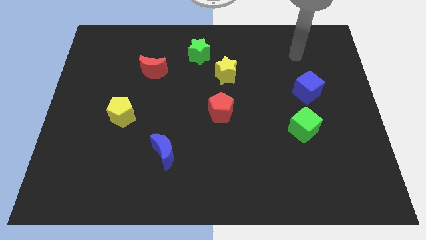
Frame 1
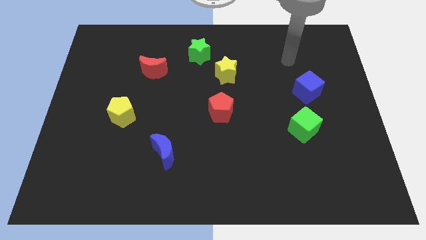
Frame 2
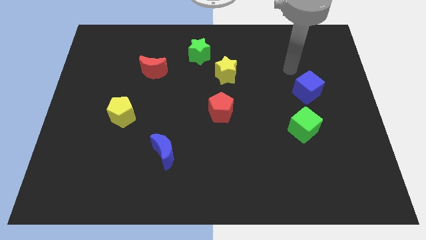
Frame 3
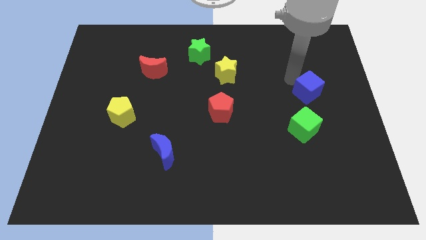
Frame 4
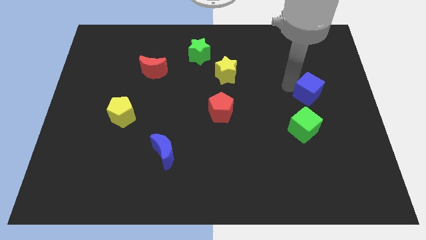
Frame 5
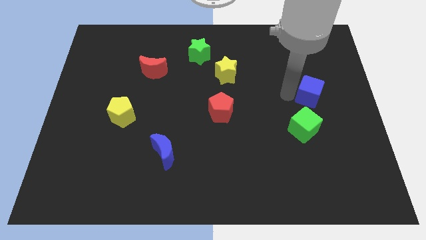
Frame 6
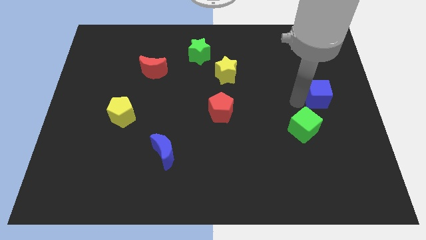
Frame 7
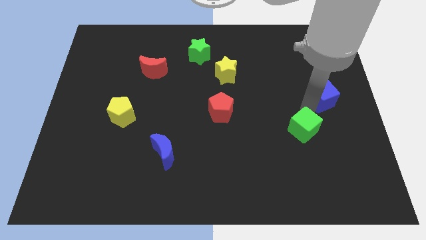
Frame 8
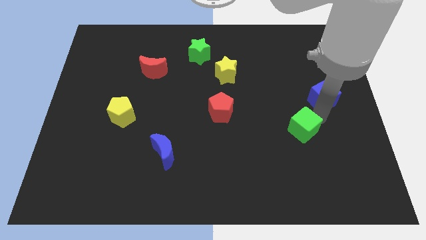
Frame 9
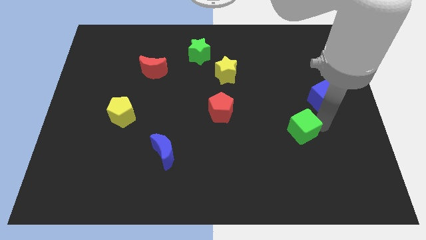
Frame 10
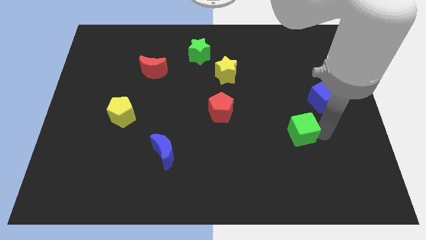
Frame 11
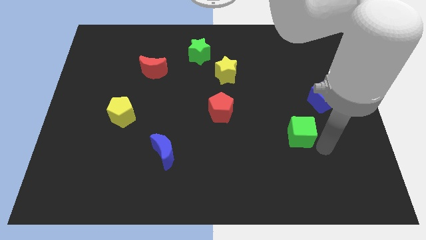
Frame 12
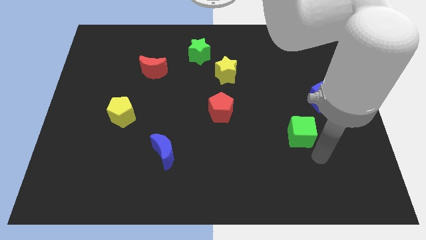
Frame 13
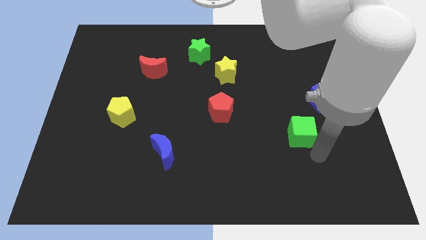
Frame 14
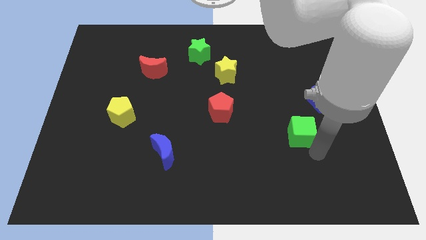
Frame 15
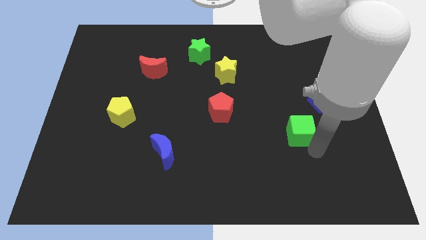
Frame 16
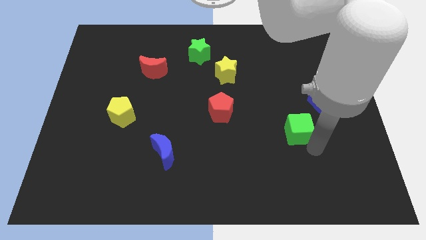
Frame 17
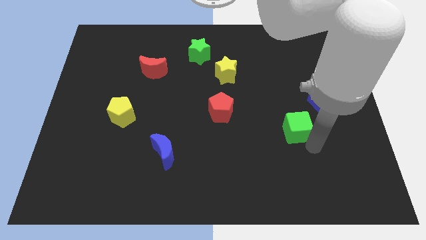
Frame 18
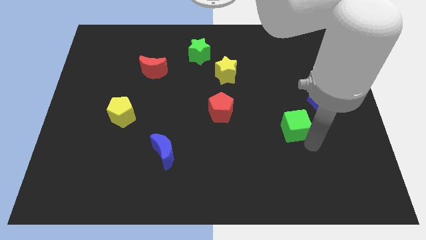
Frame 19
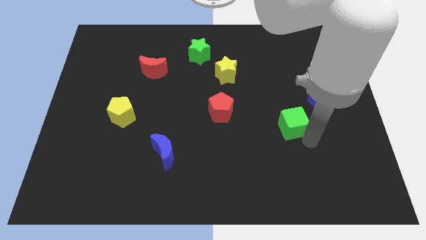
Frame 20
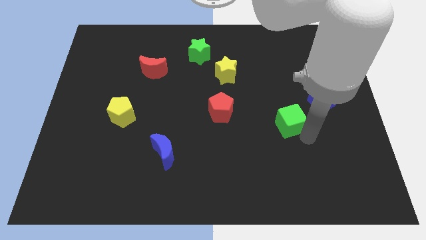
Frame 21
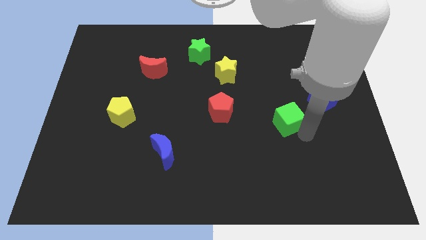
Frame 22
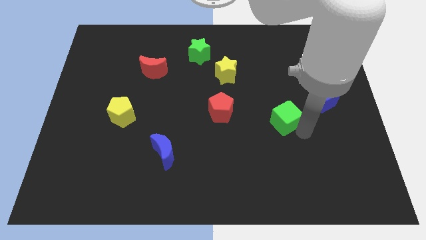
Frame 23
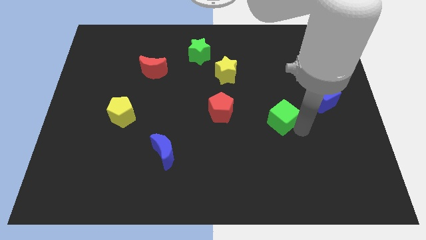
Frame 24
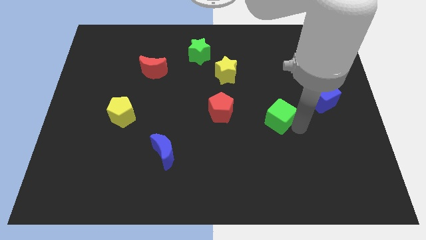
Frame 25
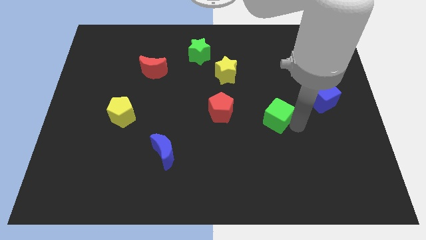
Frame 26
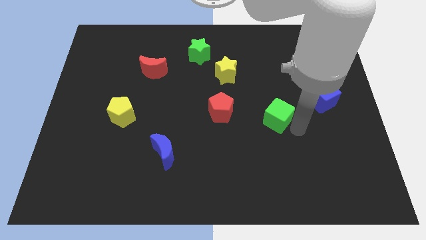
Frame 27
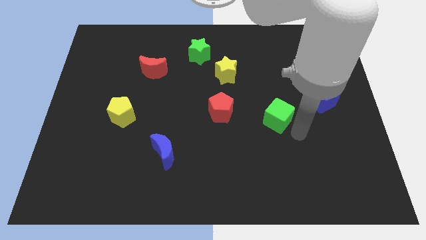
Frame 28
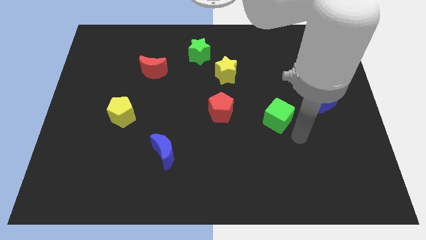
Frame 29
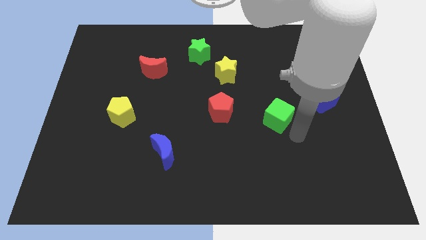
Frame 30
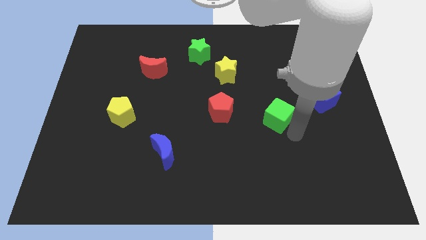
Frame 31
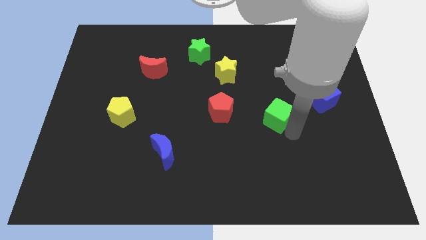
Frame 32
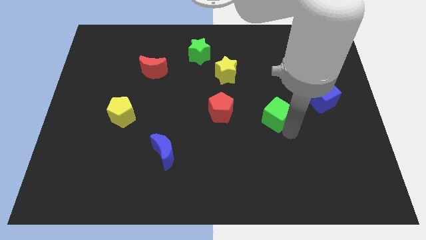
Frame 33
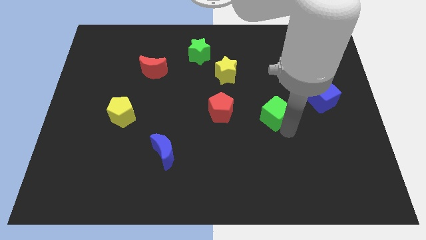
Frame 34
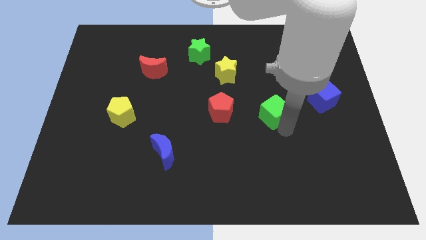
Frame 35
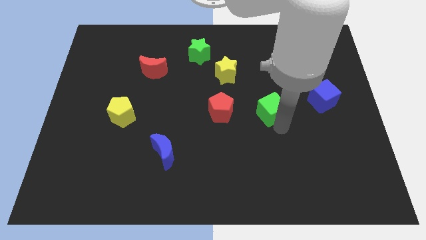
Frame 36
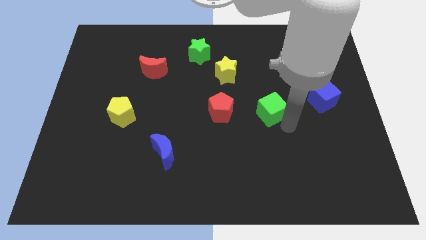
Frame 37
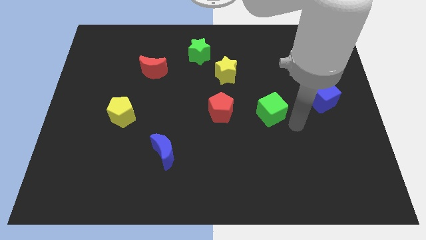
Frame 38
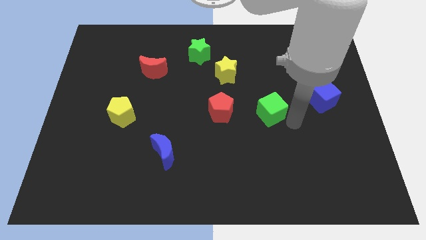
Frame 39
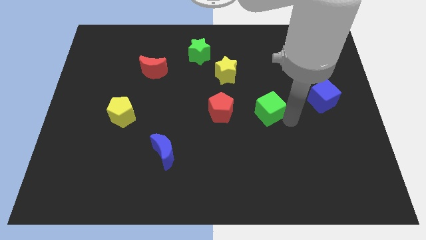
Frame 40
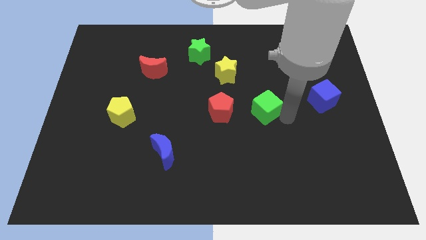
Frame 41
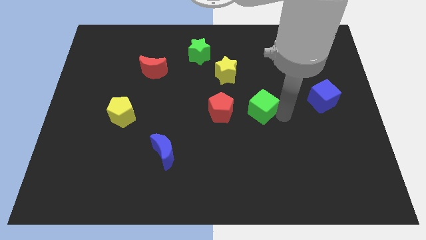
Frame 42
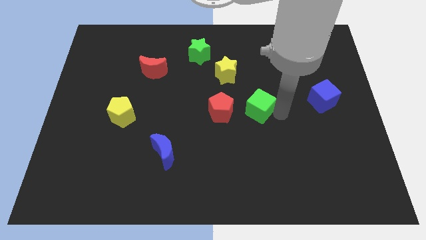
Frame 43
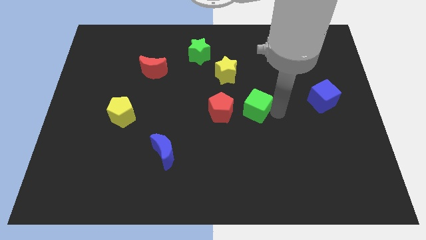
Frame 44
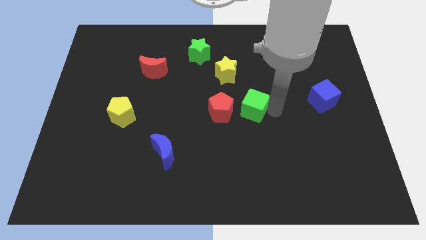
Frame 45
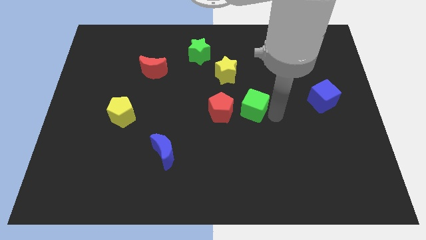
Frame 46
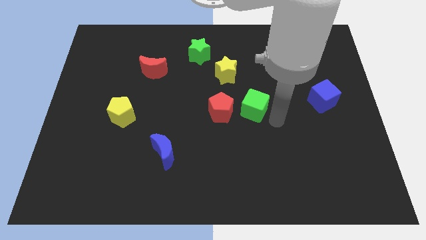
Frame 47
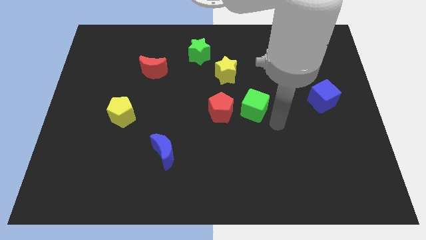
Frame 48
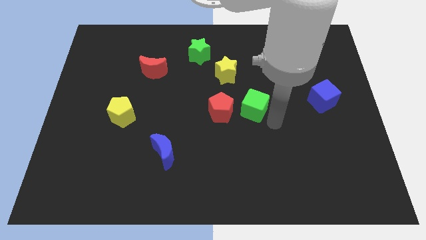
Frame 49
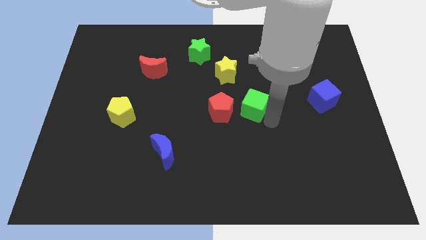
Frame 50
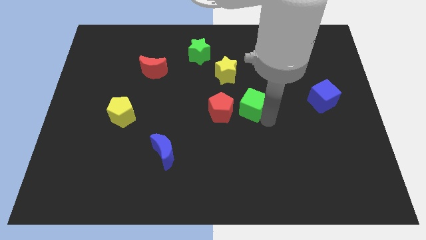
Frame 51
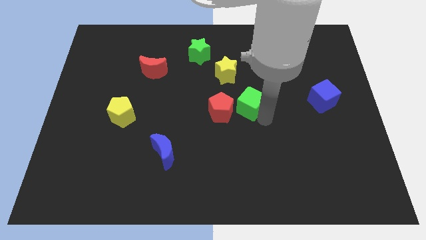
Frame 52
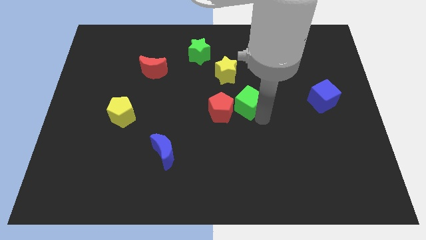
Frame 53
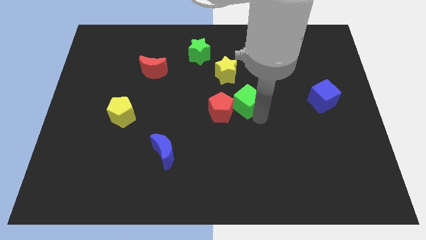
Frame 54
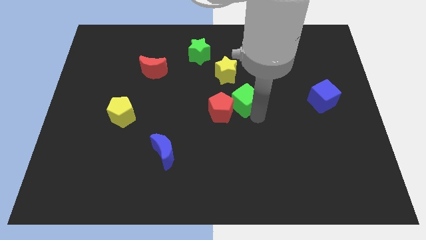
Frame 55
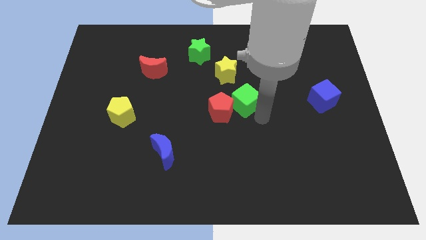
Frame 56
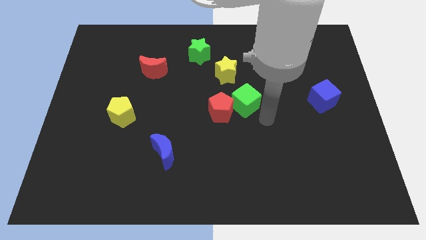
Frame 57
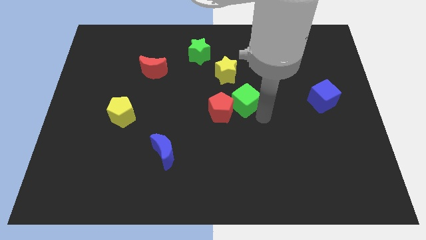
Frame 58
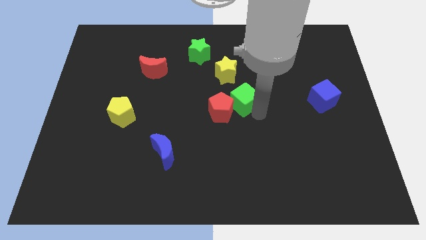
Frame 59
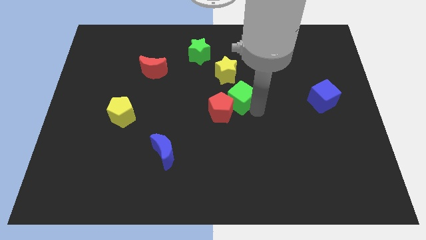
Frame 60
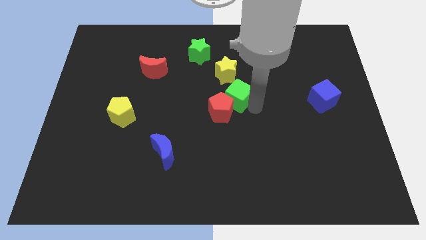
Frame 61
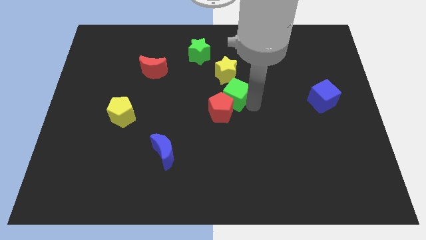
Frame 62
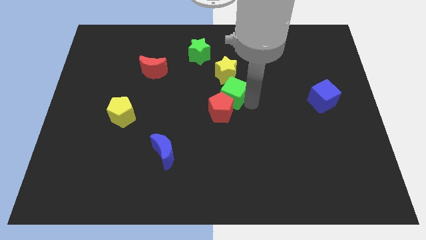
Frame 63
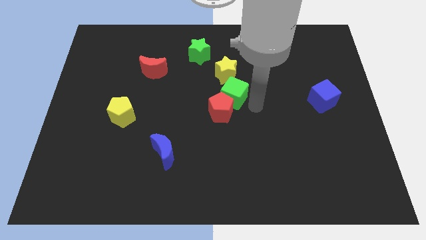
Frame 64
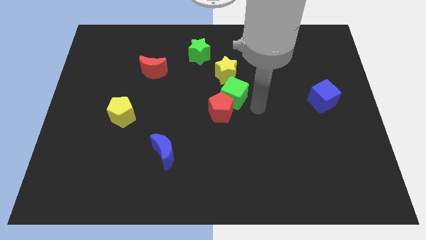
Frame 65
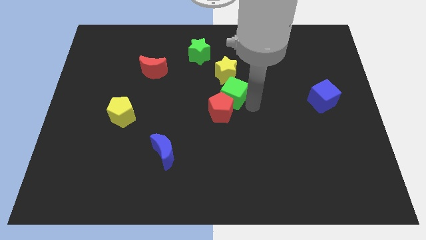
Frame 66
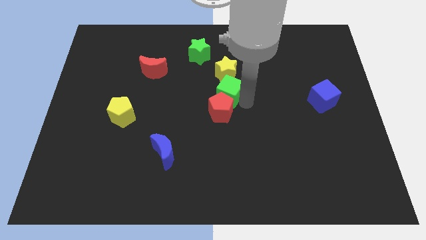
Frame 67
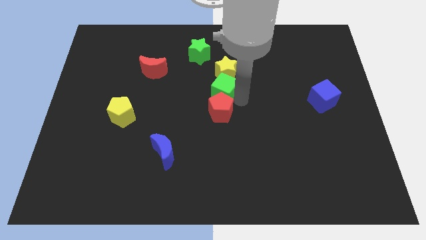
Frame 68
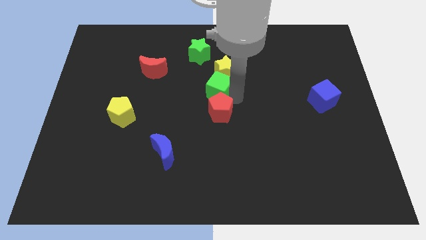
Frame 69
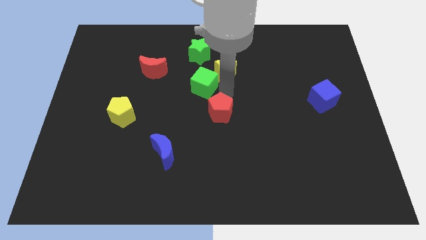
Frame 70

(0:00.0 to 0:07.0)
push the green cube just left of the yellow star
